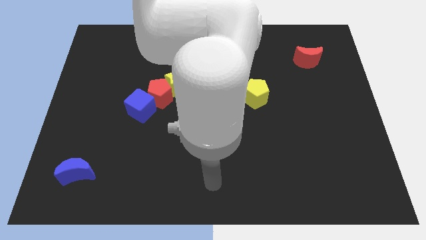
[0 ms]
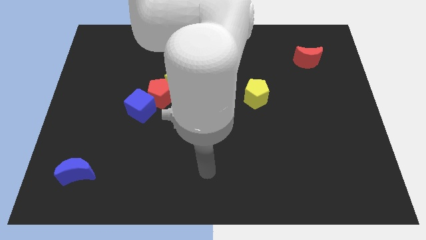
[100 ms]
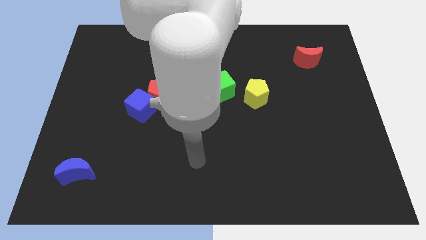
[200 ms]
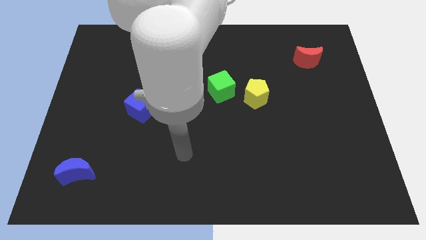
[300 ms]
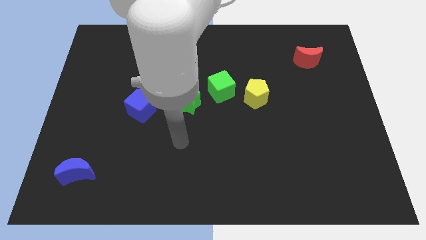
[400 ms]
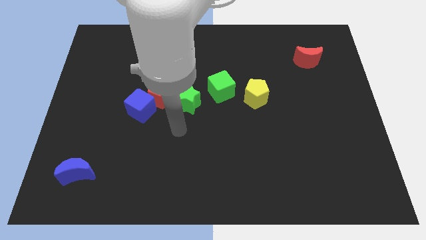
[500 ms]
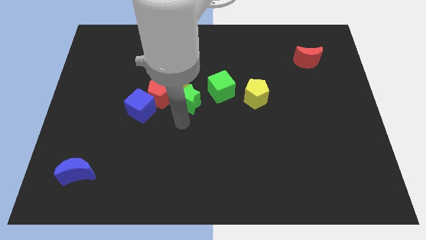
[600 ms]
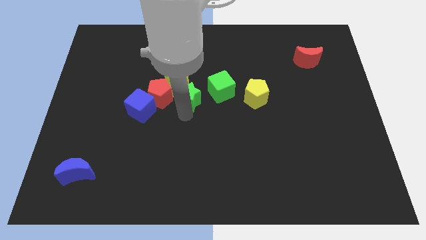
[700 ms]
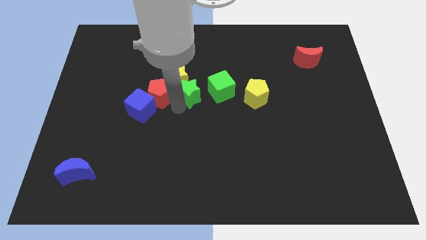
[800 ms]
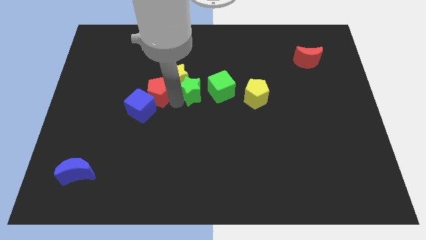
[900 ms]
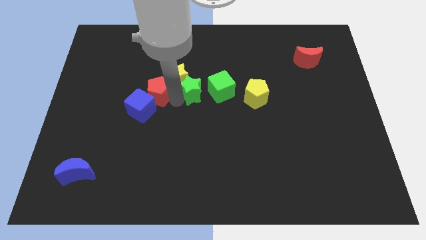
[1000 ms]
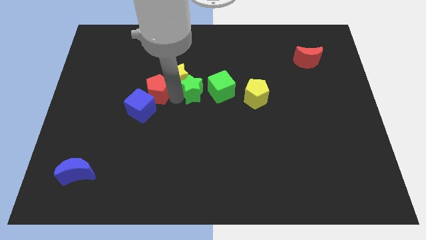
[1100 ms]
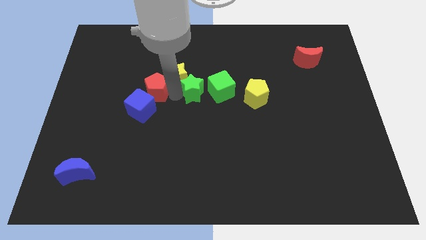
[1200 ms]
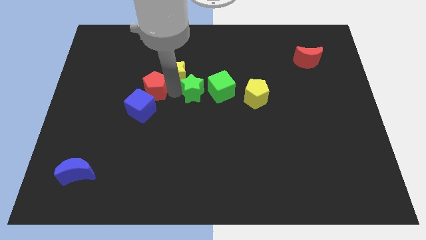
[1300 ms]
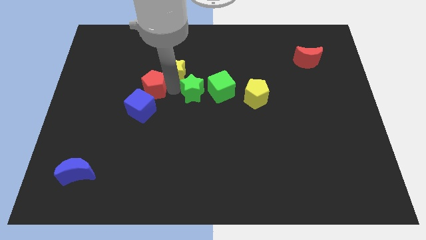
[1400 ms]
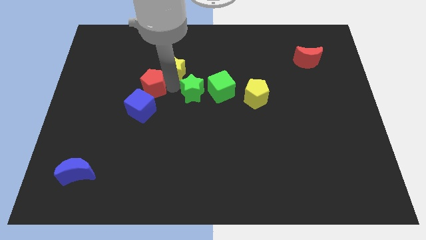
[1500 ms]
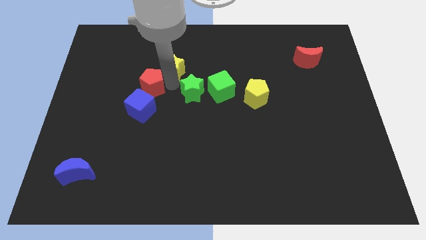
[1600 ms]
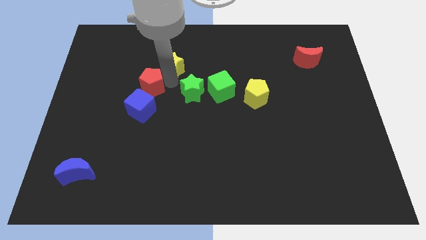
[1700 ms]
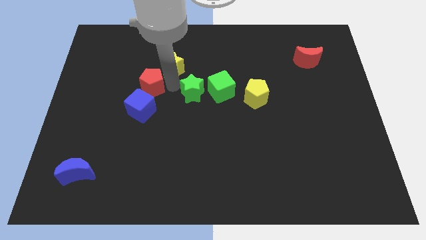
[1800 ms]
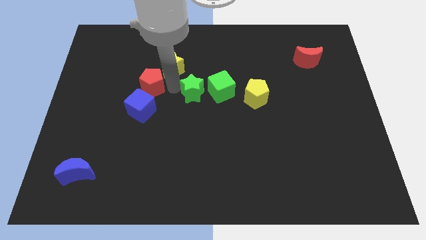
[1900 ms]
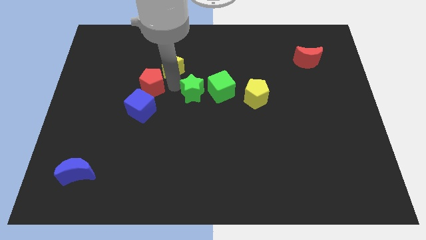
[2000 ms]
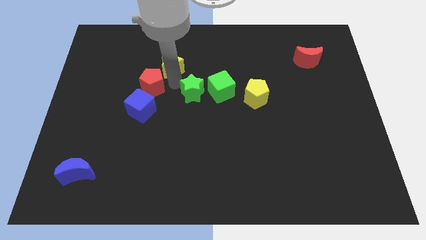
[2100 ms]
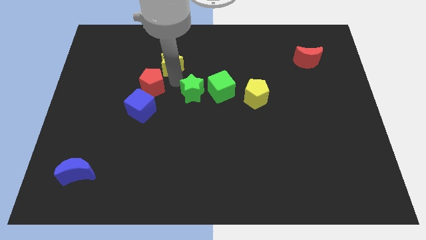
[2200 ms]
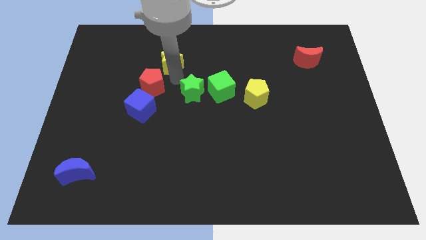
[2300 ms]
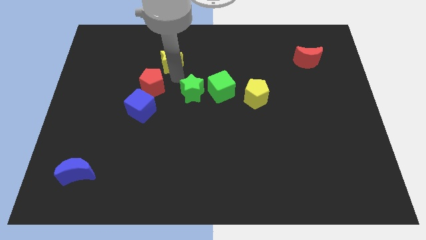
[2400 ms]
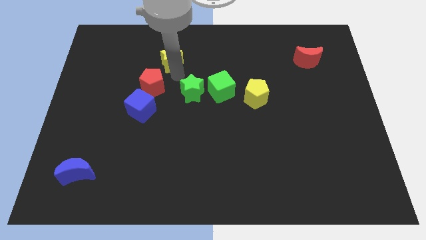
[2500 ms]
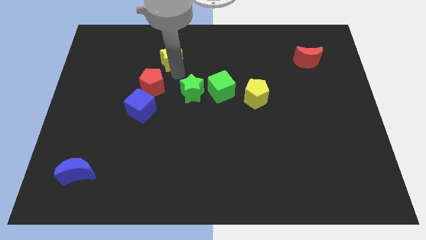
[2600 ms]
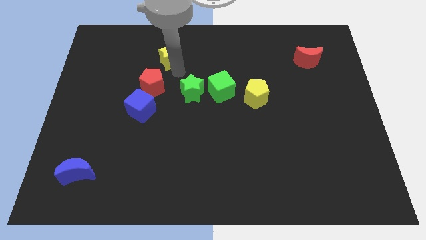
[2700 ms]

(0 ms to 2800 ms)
separate the yellow star from the red pentagon and green star

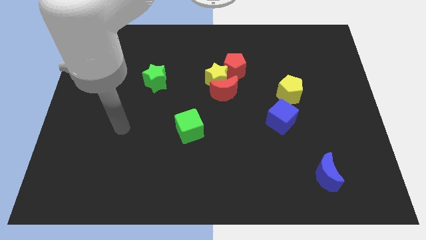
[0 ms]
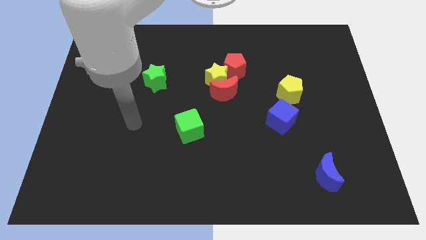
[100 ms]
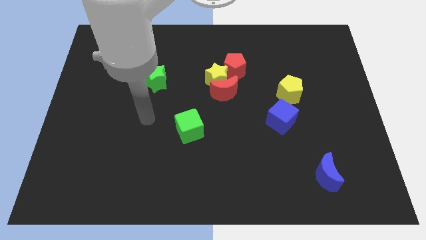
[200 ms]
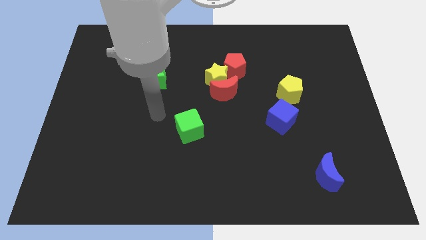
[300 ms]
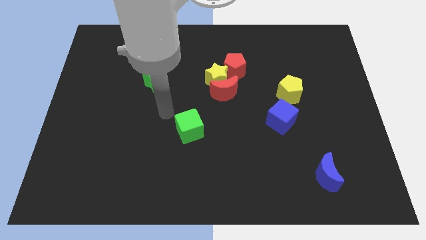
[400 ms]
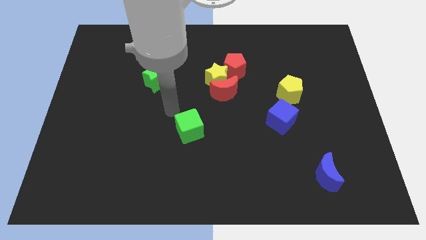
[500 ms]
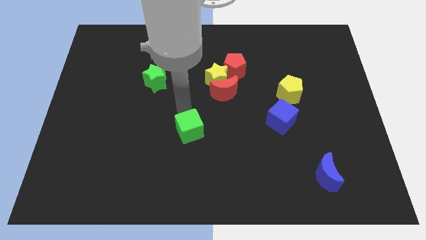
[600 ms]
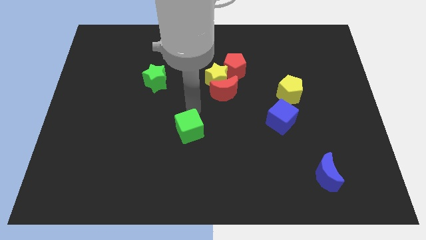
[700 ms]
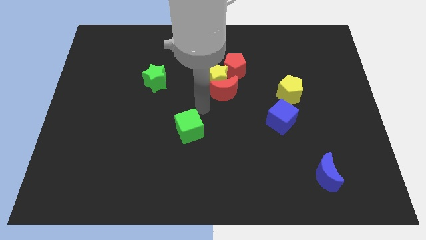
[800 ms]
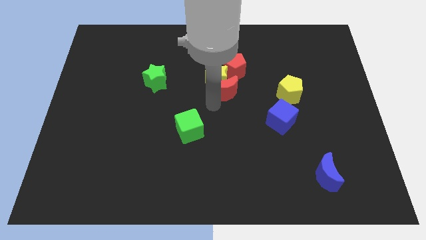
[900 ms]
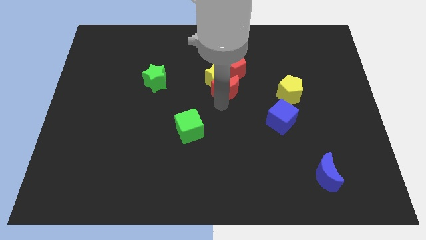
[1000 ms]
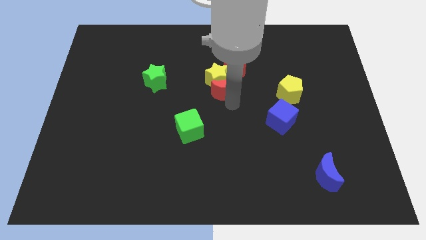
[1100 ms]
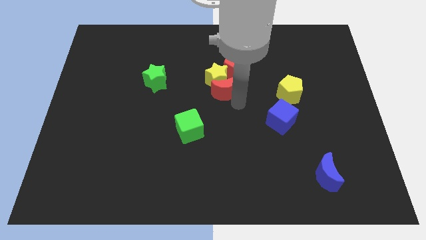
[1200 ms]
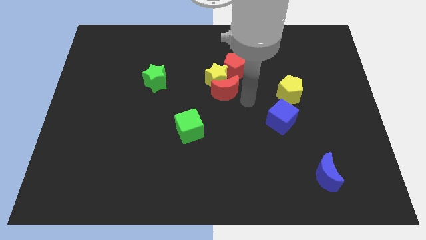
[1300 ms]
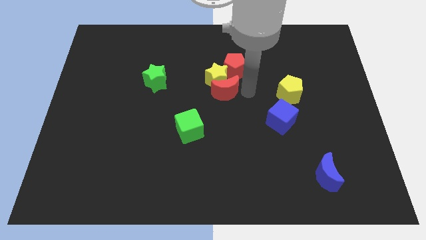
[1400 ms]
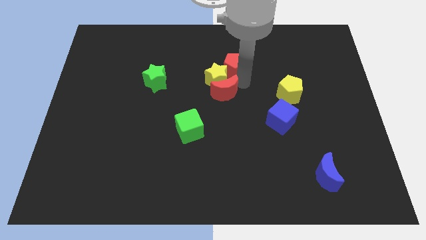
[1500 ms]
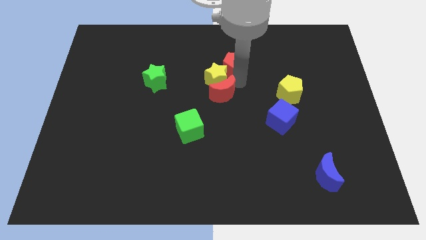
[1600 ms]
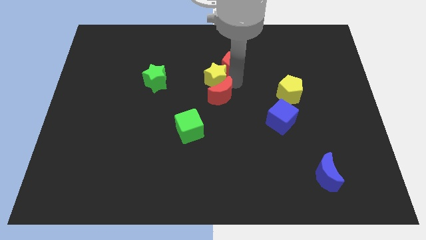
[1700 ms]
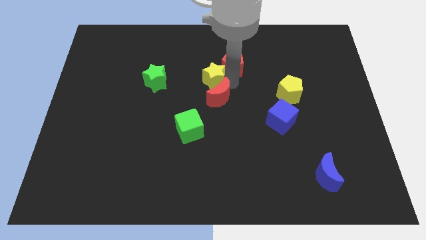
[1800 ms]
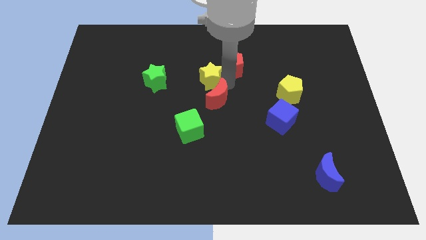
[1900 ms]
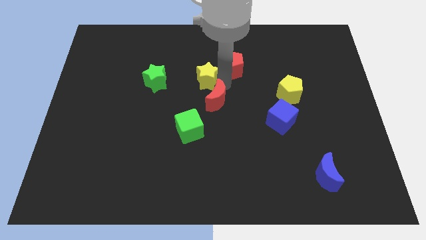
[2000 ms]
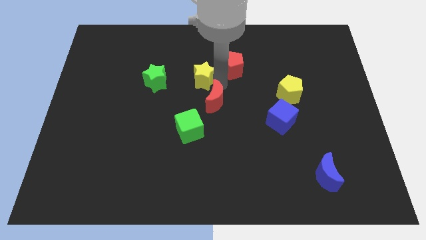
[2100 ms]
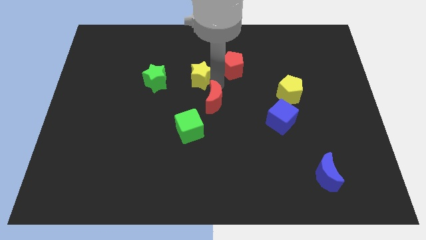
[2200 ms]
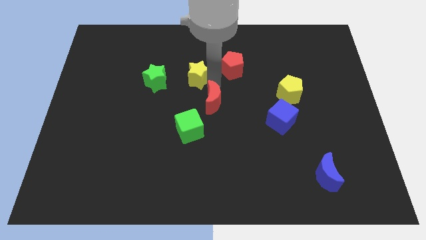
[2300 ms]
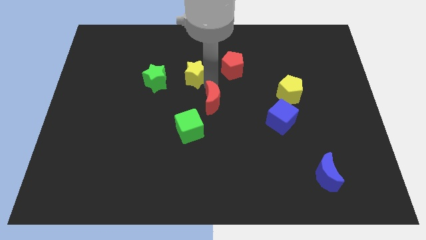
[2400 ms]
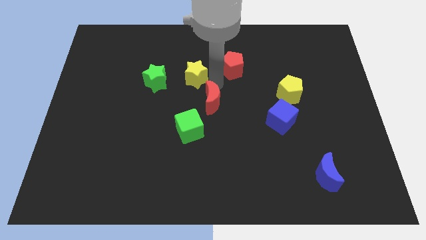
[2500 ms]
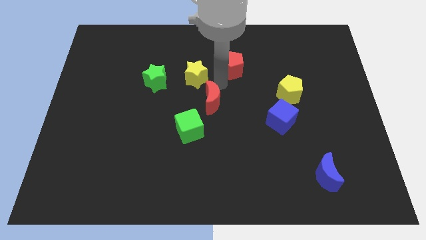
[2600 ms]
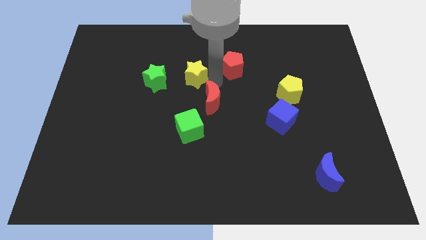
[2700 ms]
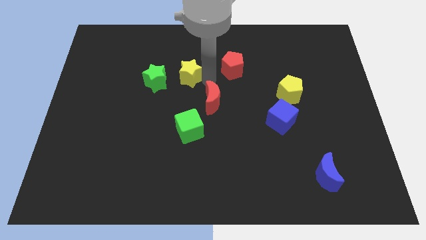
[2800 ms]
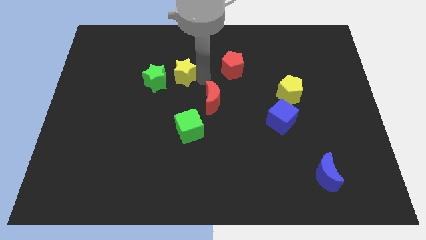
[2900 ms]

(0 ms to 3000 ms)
move the yellow star away from the red moon and red pentagon

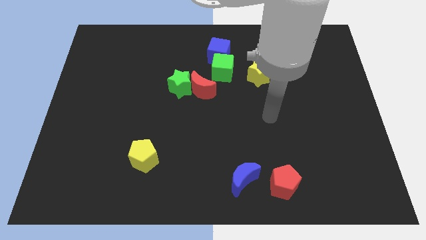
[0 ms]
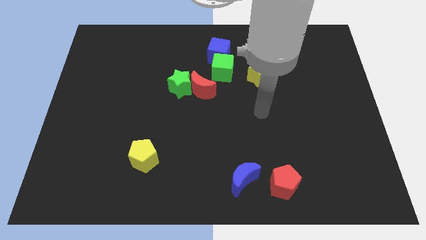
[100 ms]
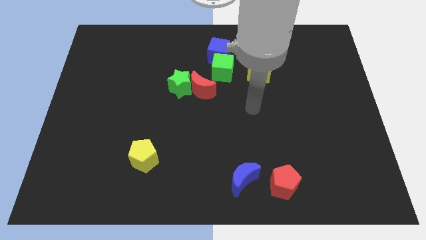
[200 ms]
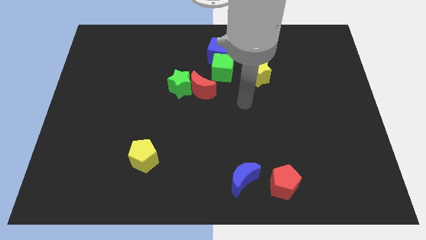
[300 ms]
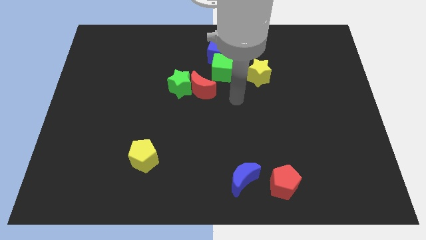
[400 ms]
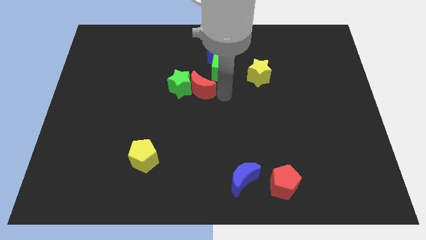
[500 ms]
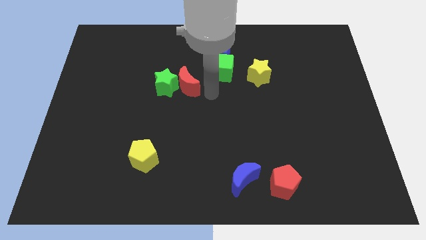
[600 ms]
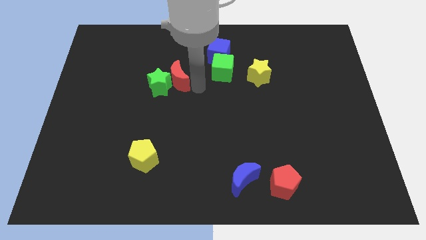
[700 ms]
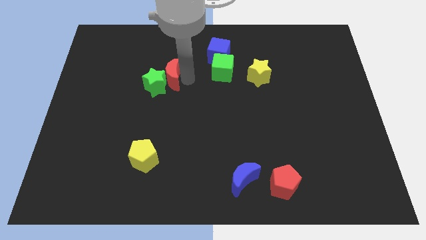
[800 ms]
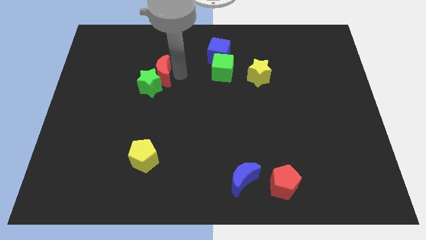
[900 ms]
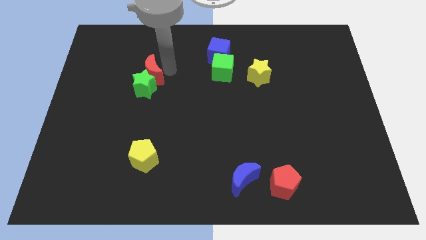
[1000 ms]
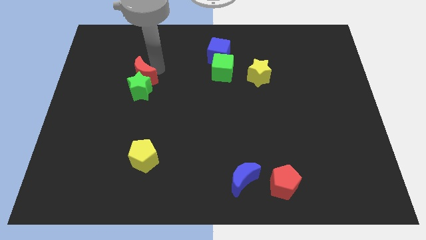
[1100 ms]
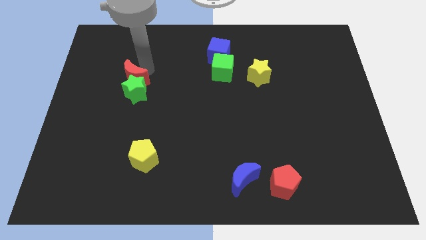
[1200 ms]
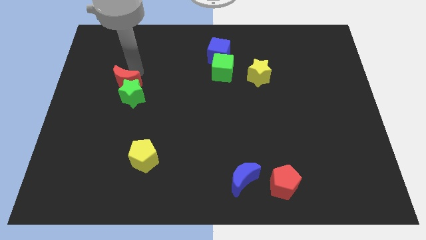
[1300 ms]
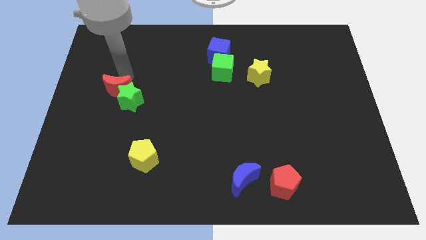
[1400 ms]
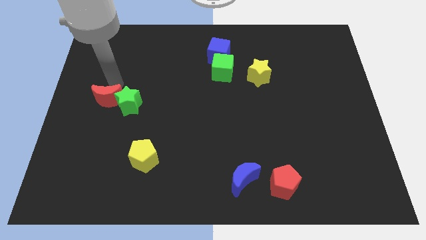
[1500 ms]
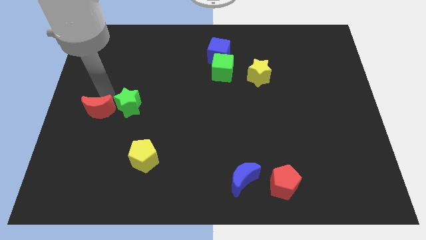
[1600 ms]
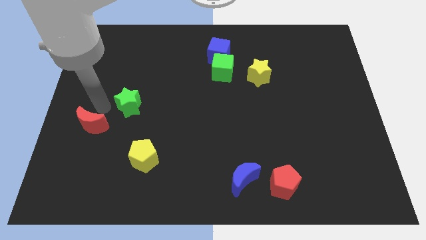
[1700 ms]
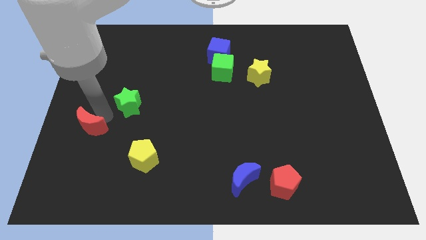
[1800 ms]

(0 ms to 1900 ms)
pull the green star apart from the red moon

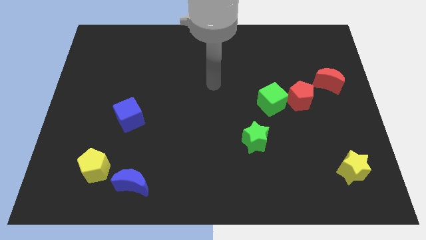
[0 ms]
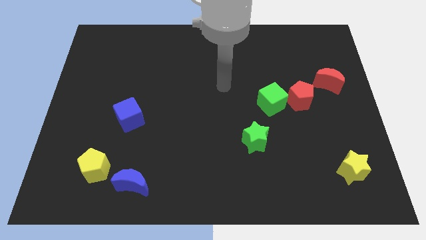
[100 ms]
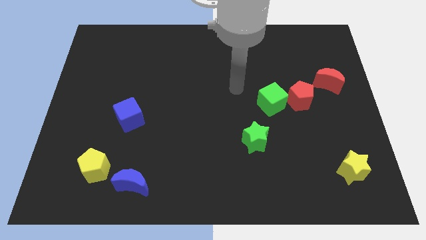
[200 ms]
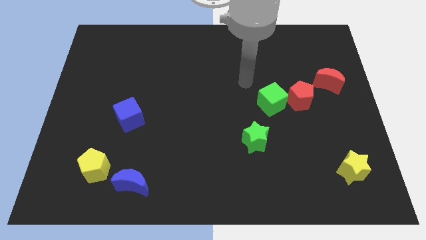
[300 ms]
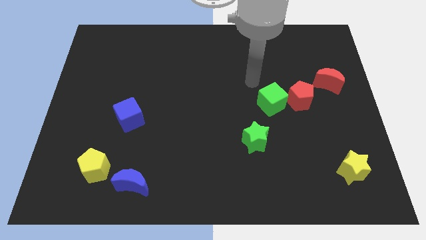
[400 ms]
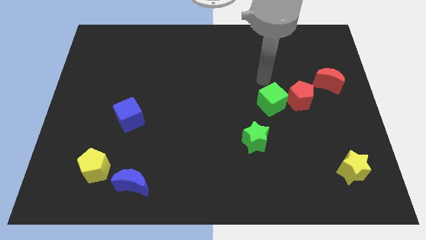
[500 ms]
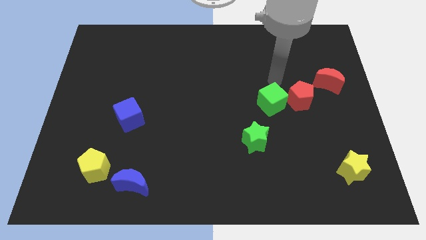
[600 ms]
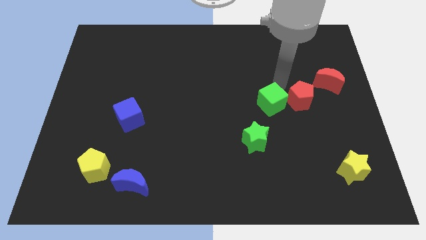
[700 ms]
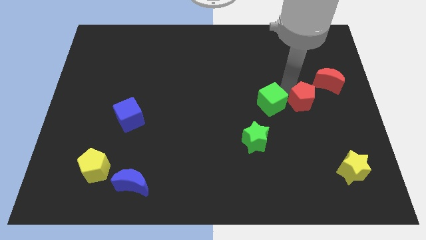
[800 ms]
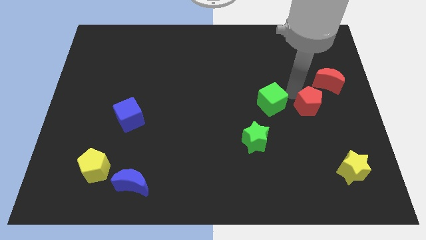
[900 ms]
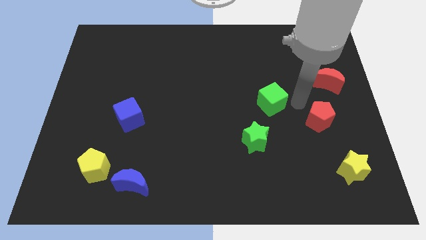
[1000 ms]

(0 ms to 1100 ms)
pull the green cube apart from the red pentagon

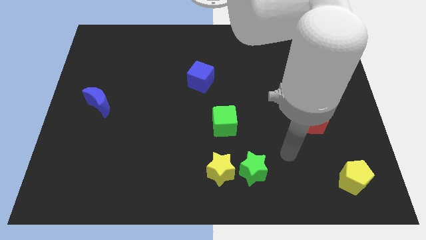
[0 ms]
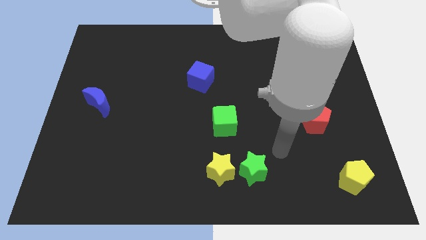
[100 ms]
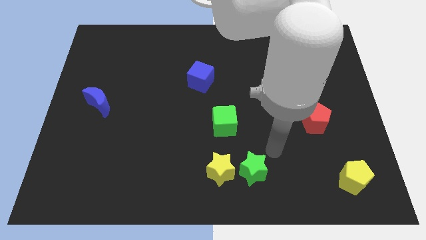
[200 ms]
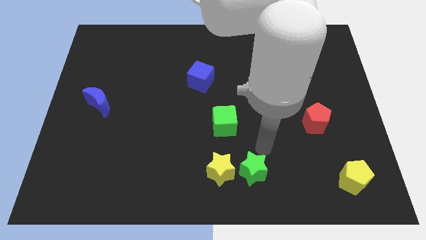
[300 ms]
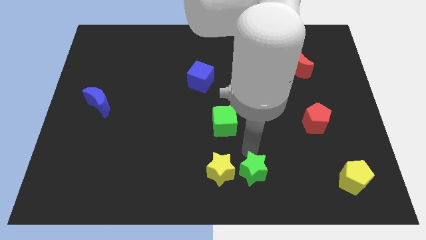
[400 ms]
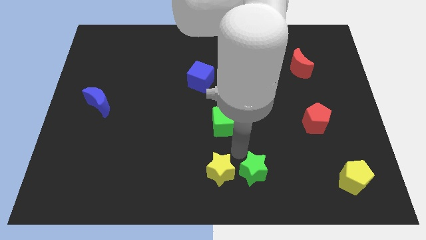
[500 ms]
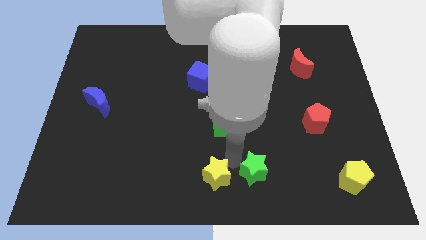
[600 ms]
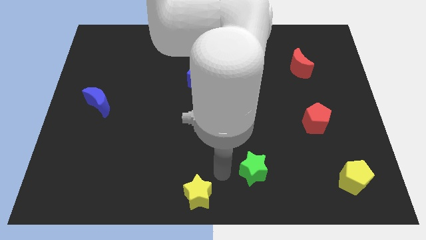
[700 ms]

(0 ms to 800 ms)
pull the green star apart from the yellow star
